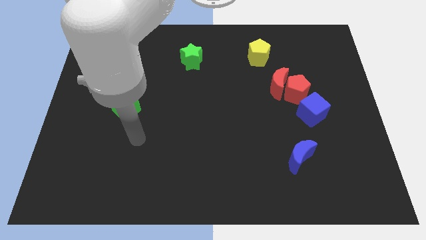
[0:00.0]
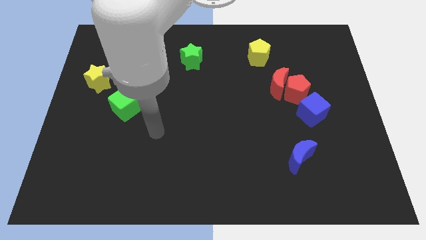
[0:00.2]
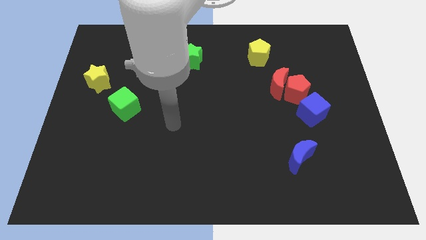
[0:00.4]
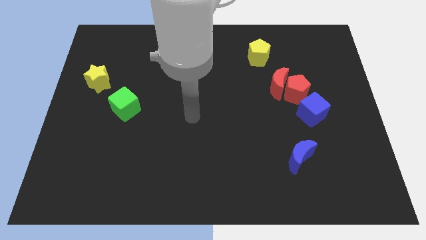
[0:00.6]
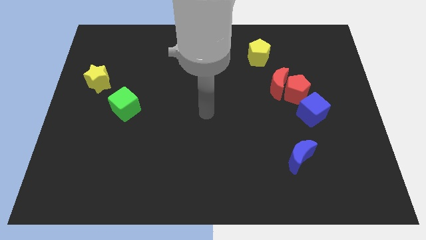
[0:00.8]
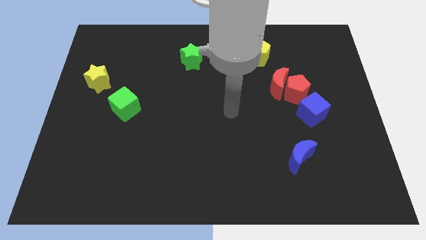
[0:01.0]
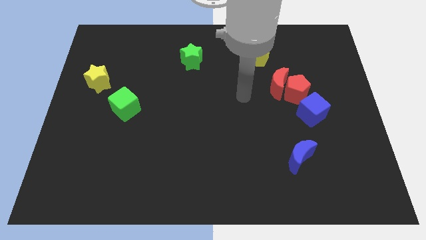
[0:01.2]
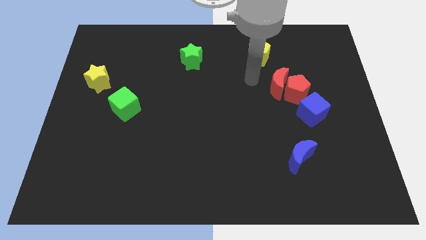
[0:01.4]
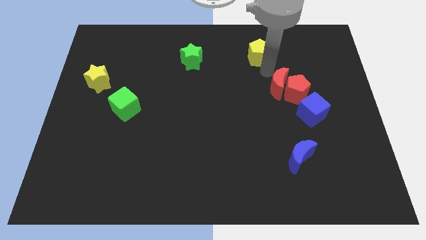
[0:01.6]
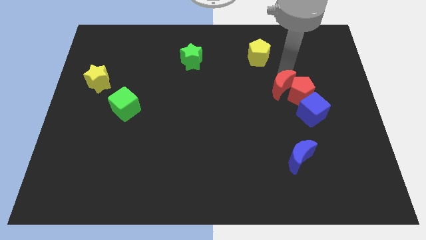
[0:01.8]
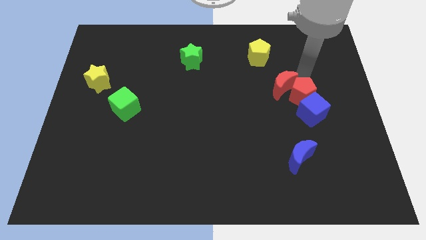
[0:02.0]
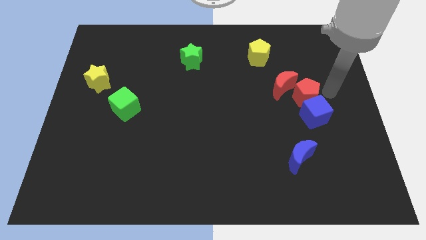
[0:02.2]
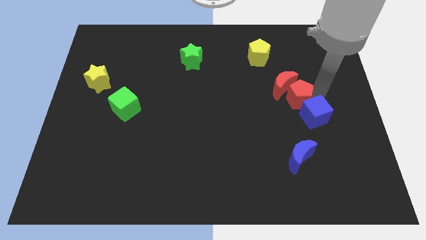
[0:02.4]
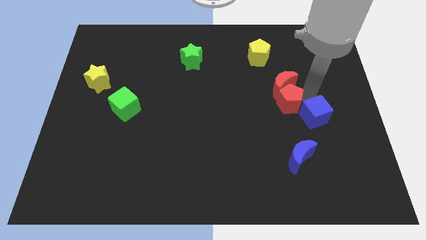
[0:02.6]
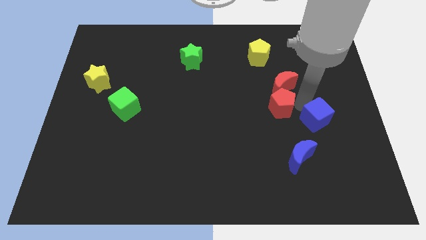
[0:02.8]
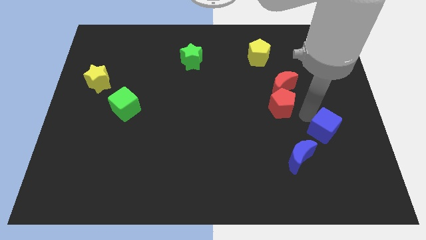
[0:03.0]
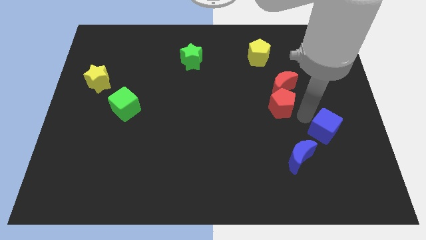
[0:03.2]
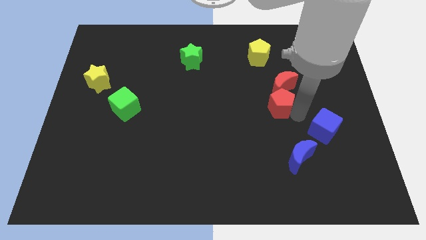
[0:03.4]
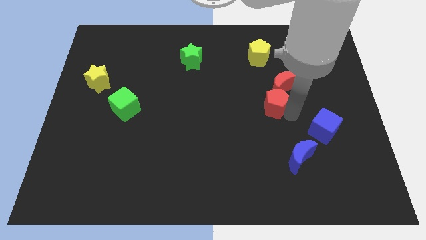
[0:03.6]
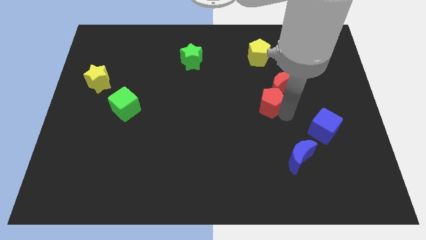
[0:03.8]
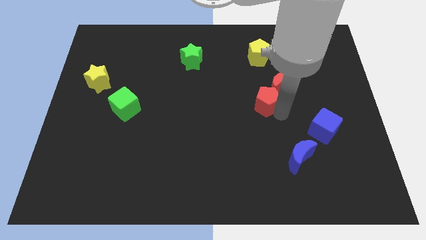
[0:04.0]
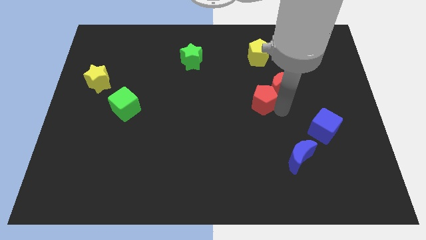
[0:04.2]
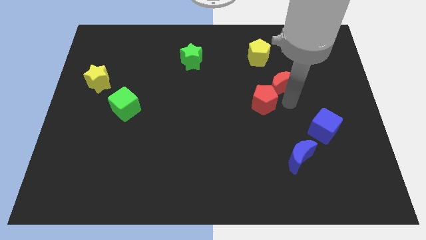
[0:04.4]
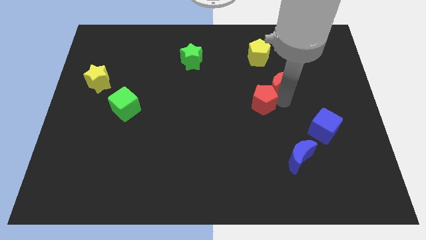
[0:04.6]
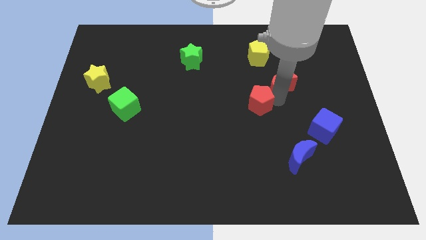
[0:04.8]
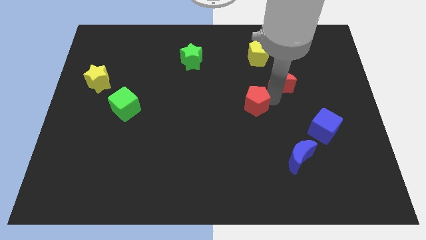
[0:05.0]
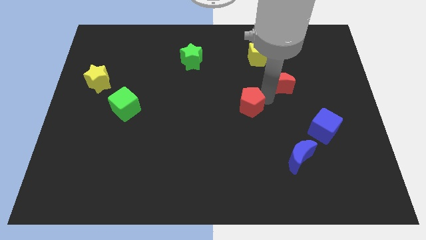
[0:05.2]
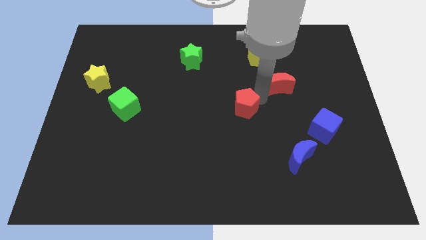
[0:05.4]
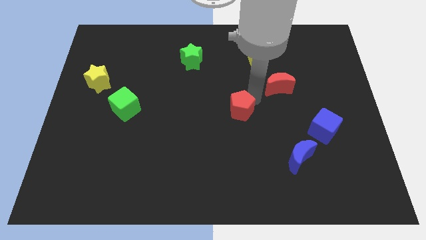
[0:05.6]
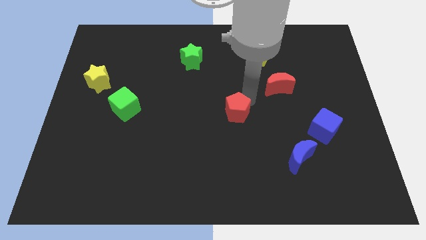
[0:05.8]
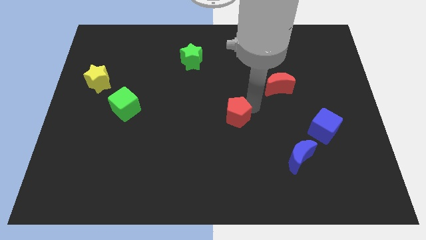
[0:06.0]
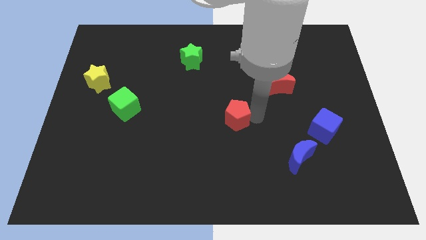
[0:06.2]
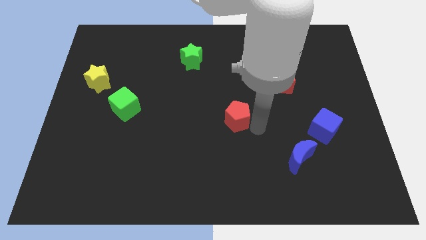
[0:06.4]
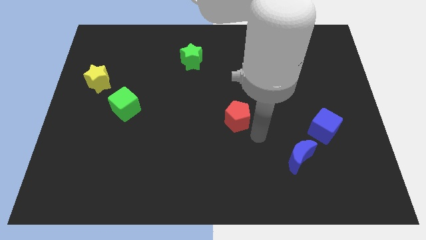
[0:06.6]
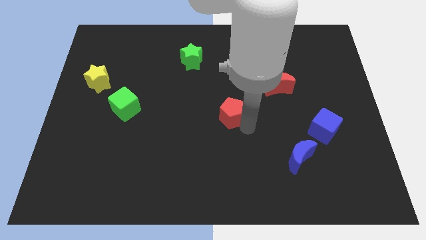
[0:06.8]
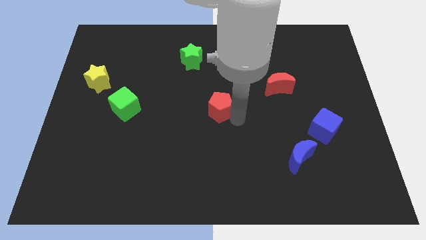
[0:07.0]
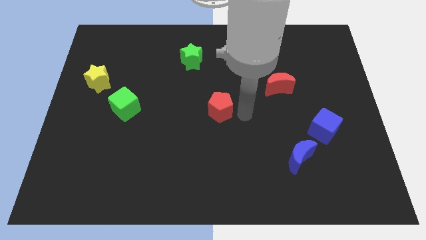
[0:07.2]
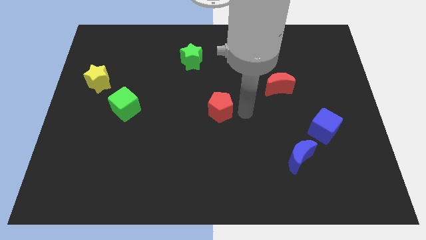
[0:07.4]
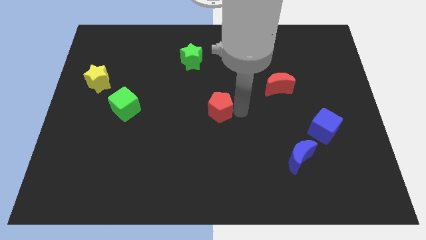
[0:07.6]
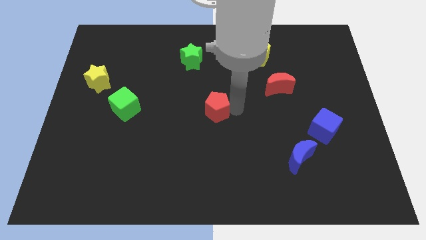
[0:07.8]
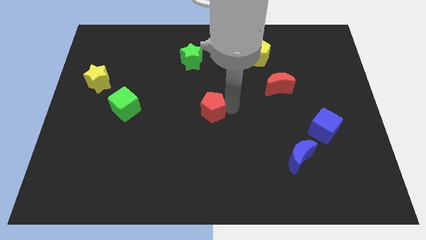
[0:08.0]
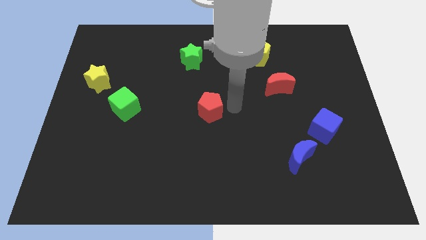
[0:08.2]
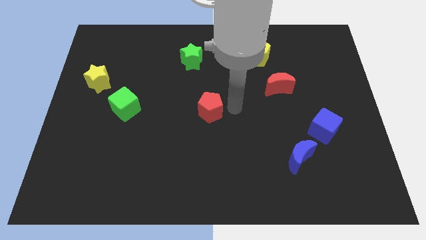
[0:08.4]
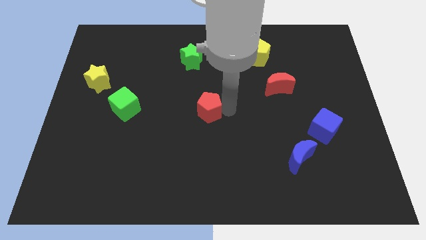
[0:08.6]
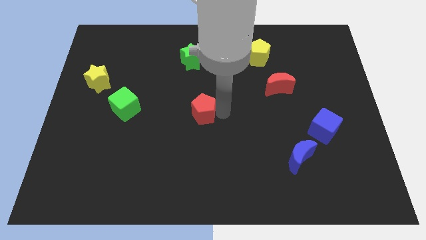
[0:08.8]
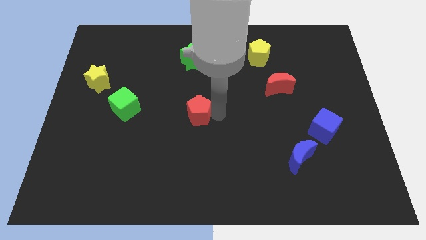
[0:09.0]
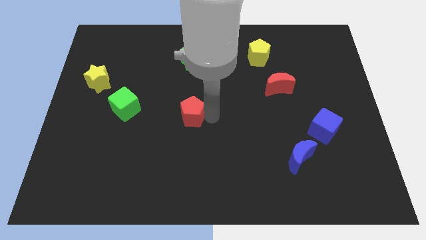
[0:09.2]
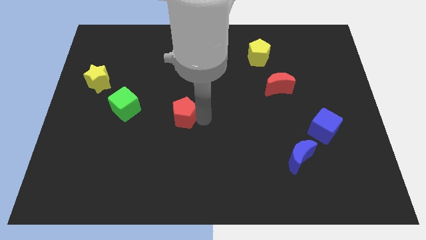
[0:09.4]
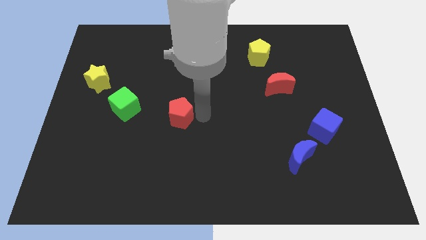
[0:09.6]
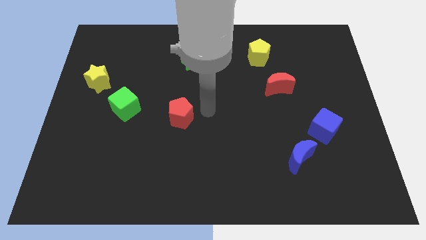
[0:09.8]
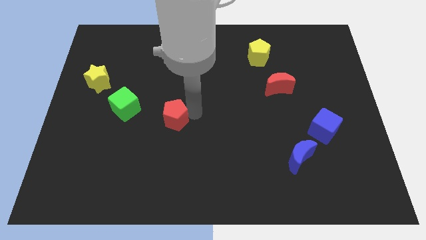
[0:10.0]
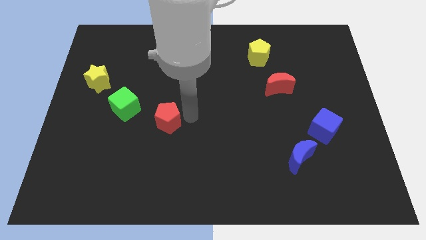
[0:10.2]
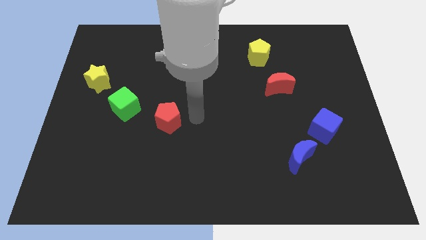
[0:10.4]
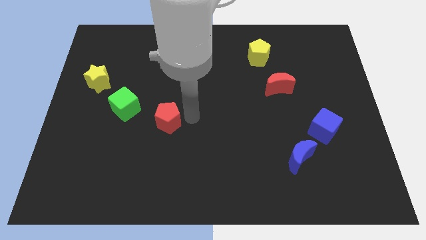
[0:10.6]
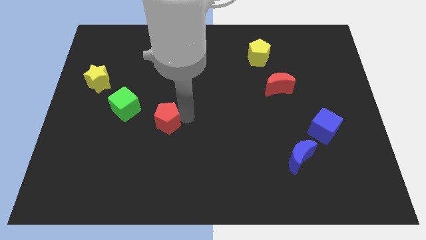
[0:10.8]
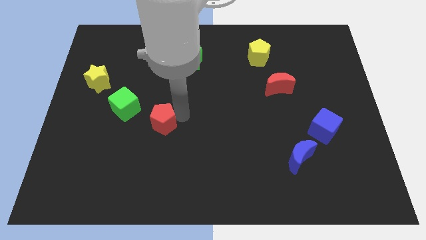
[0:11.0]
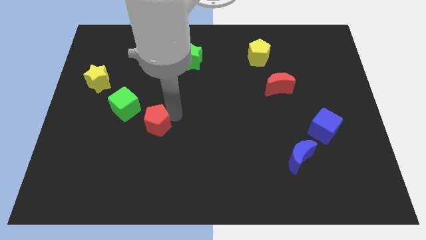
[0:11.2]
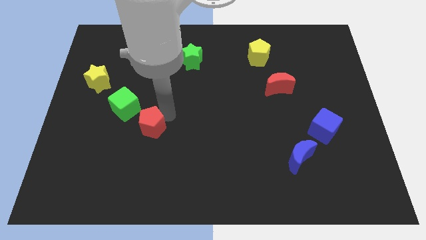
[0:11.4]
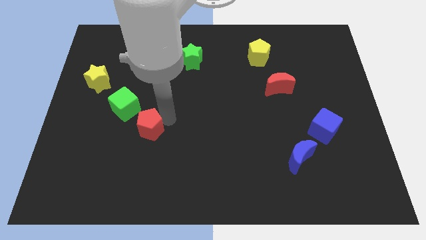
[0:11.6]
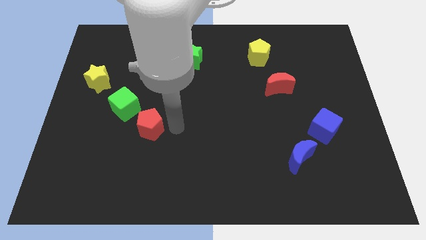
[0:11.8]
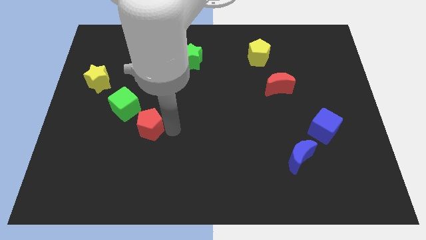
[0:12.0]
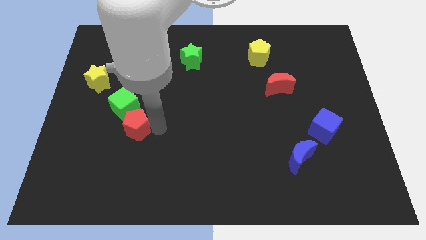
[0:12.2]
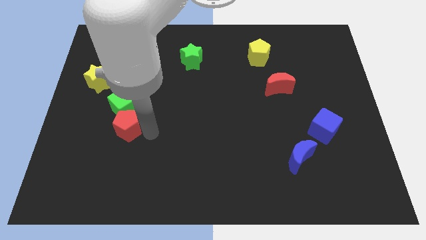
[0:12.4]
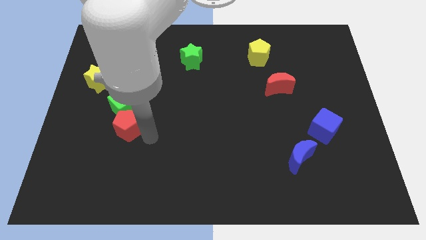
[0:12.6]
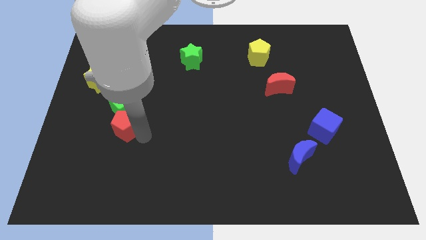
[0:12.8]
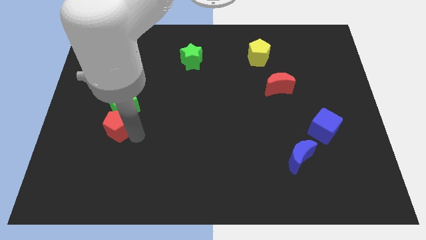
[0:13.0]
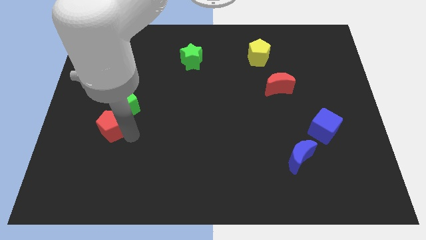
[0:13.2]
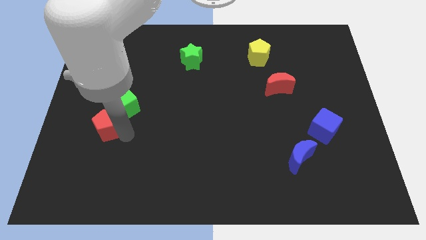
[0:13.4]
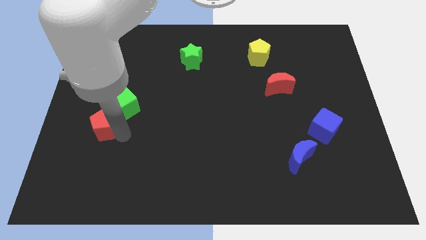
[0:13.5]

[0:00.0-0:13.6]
push the red pentagon to the bottom side of the yellow star
